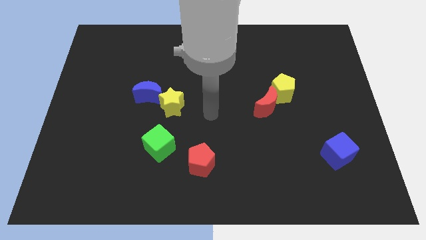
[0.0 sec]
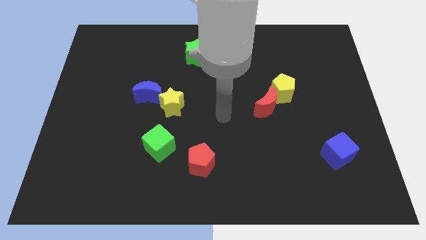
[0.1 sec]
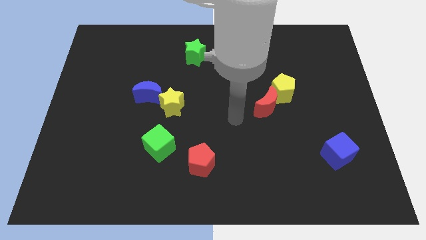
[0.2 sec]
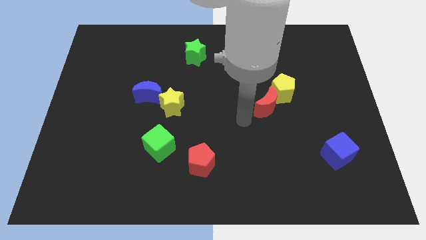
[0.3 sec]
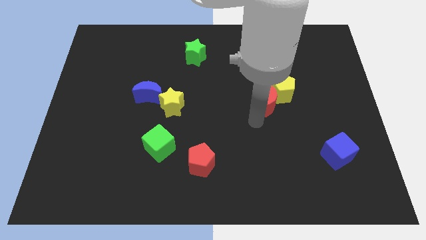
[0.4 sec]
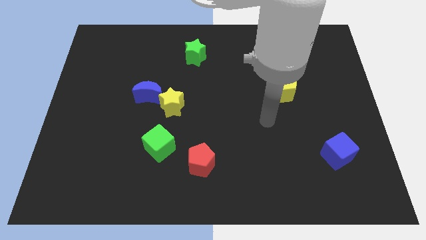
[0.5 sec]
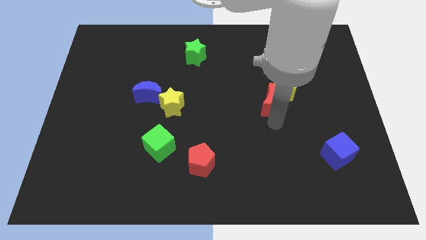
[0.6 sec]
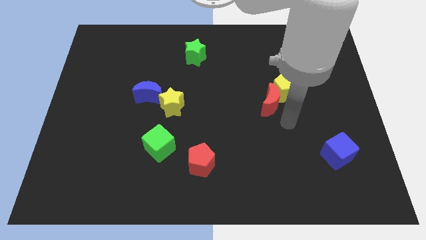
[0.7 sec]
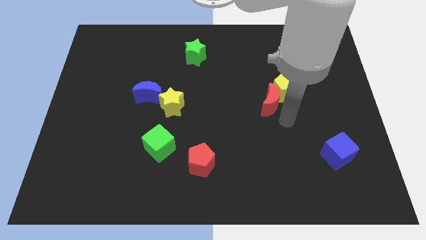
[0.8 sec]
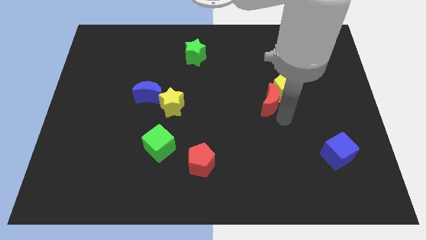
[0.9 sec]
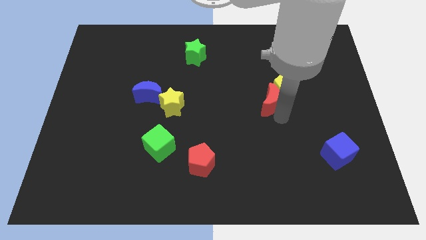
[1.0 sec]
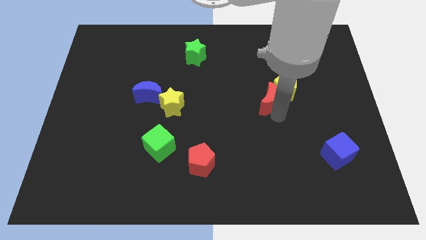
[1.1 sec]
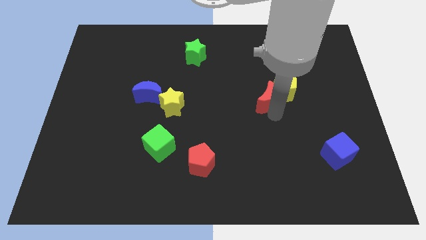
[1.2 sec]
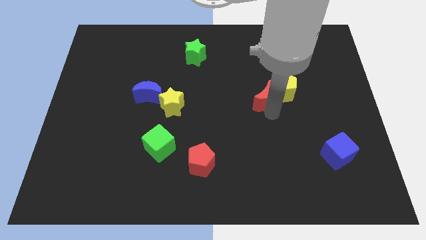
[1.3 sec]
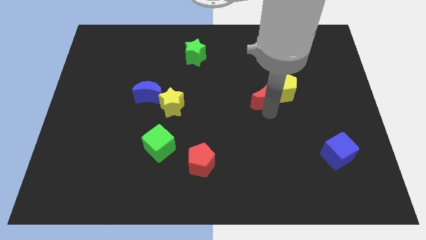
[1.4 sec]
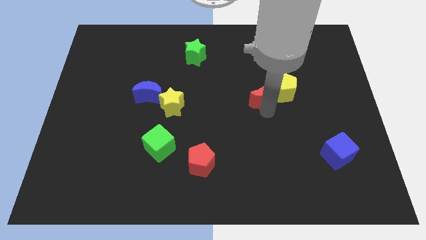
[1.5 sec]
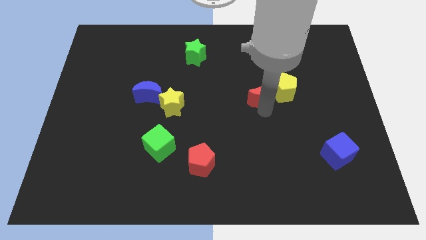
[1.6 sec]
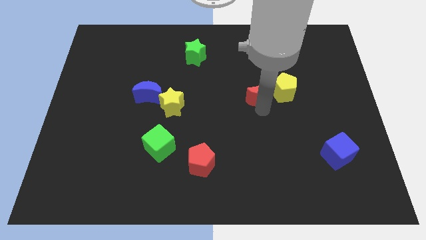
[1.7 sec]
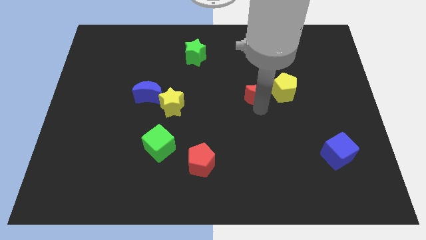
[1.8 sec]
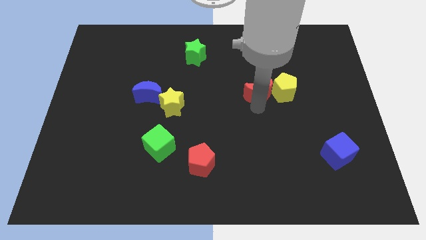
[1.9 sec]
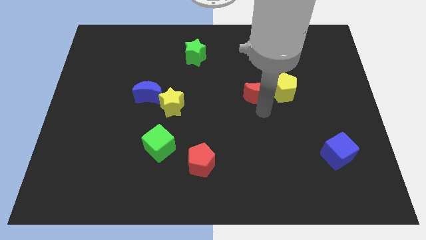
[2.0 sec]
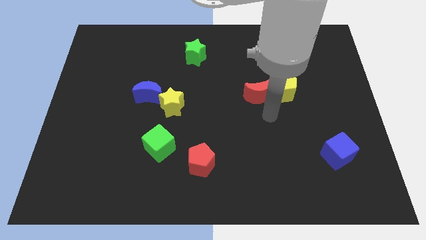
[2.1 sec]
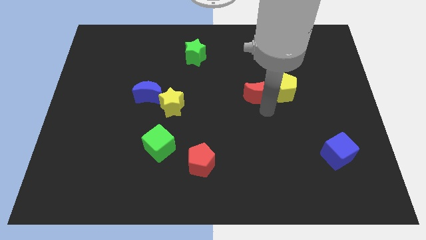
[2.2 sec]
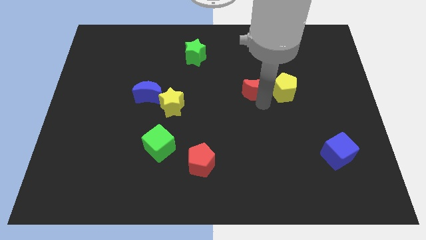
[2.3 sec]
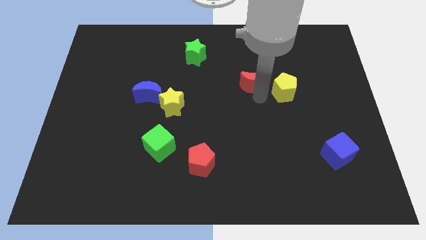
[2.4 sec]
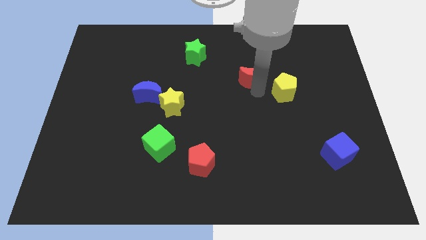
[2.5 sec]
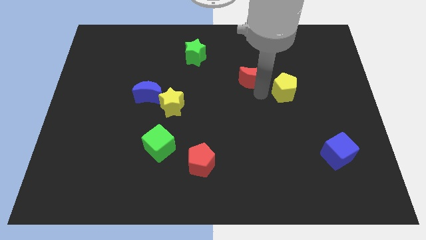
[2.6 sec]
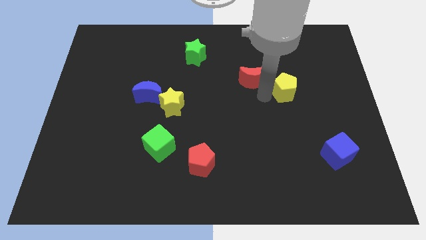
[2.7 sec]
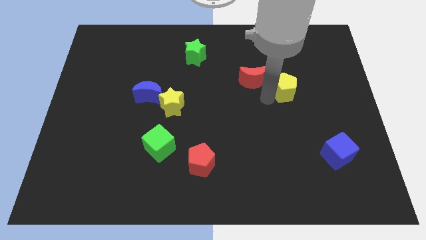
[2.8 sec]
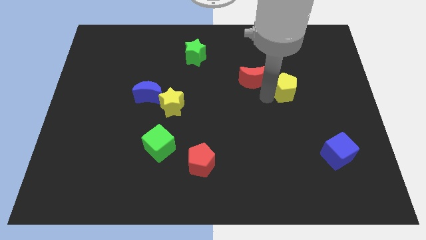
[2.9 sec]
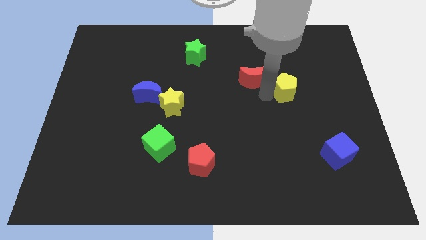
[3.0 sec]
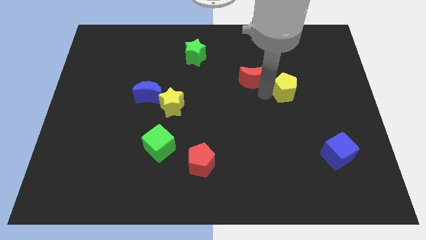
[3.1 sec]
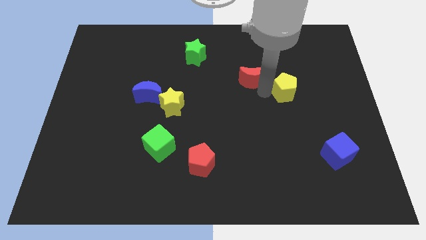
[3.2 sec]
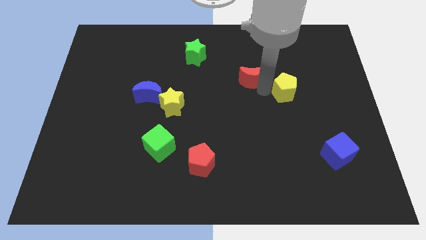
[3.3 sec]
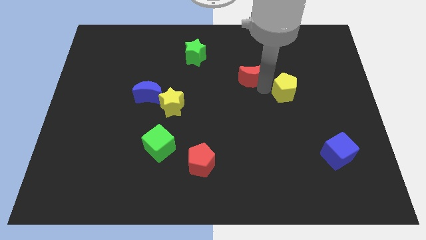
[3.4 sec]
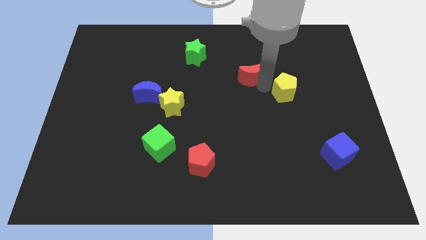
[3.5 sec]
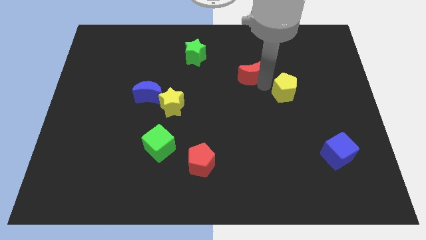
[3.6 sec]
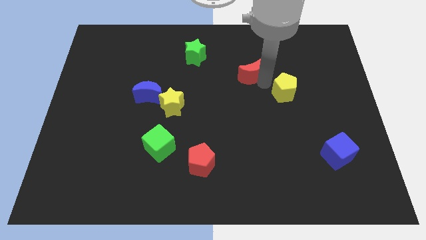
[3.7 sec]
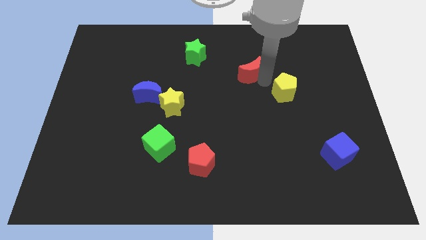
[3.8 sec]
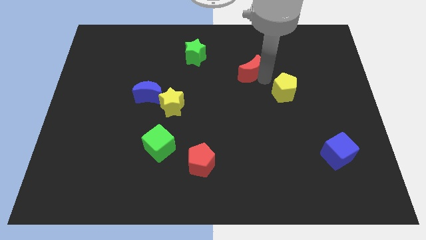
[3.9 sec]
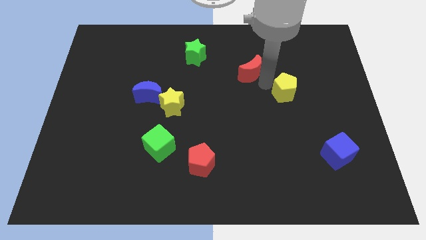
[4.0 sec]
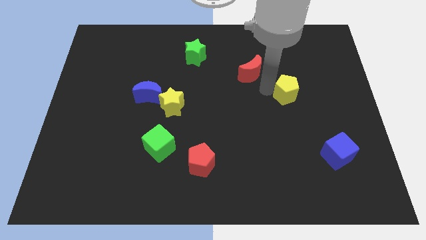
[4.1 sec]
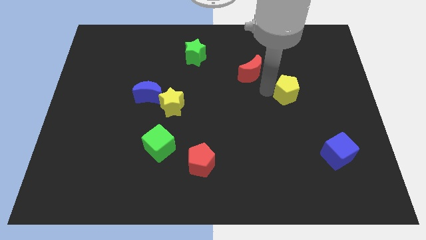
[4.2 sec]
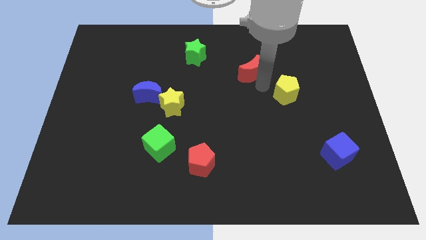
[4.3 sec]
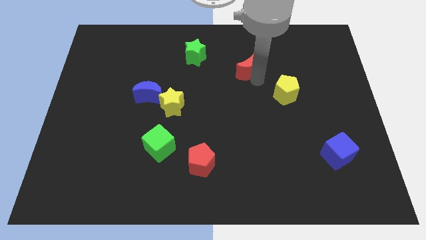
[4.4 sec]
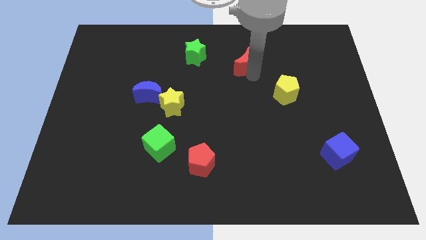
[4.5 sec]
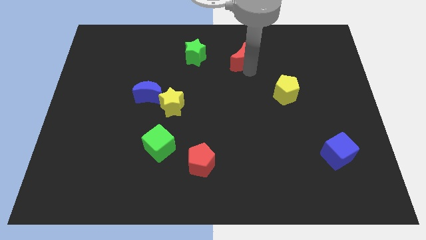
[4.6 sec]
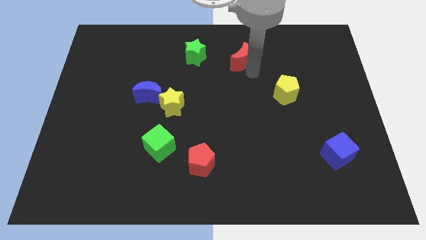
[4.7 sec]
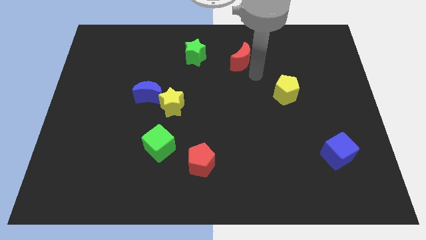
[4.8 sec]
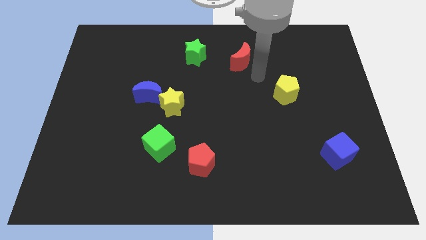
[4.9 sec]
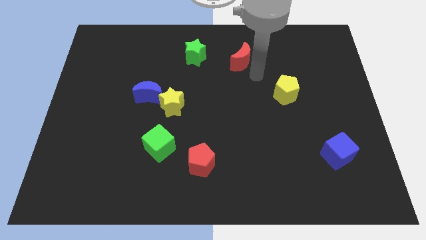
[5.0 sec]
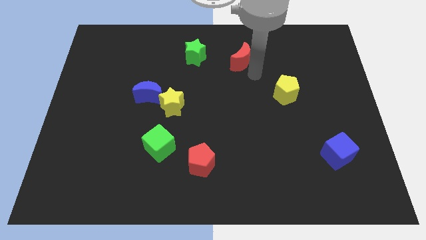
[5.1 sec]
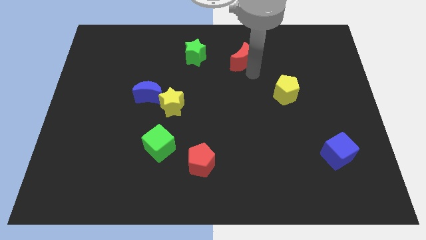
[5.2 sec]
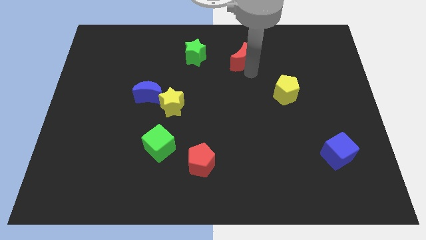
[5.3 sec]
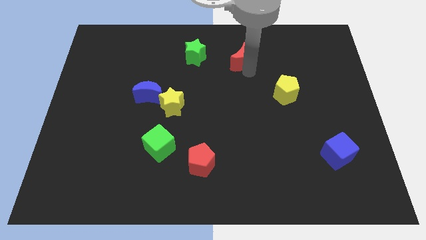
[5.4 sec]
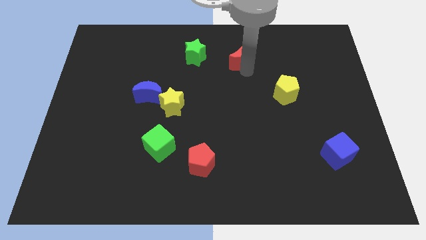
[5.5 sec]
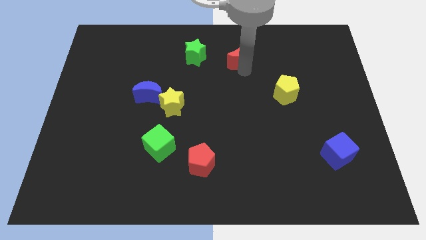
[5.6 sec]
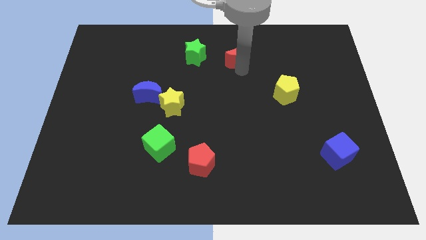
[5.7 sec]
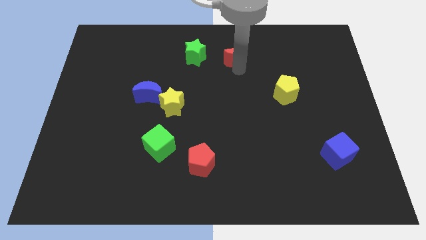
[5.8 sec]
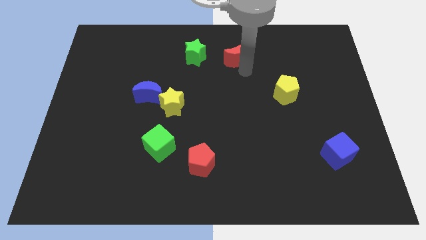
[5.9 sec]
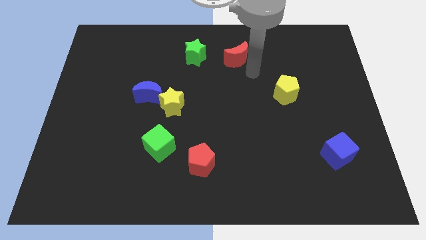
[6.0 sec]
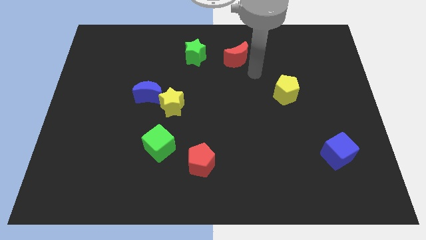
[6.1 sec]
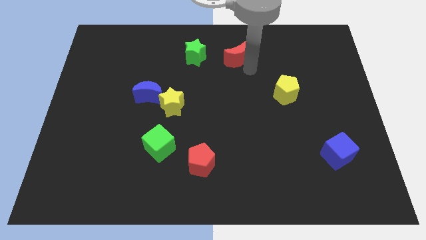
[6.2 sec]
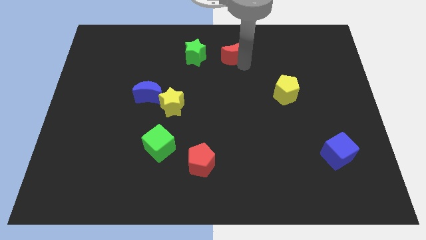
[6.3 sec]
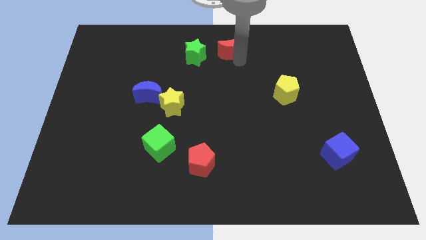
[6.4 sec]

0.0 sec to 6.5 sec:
push the red moon to the towards your base
